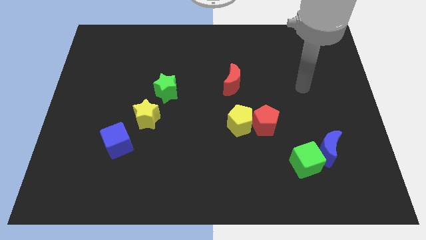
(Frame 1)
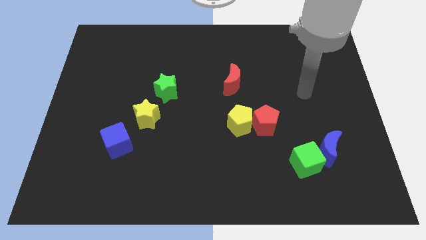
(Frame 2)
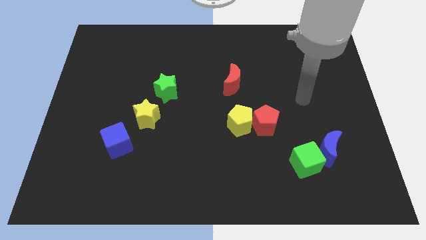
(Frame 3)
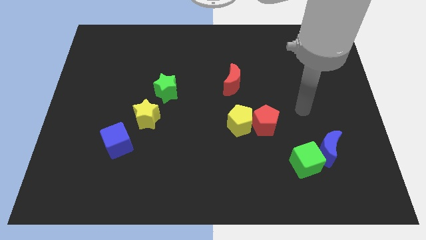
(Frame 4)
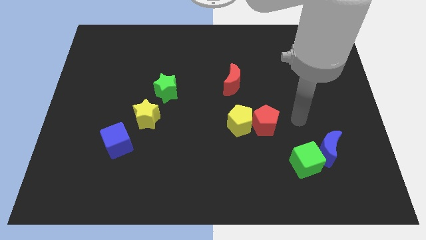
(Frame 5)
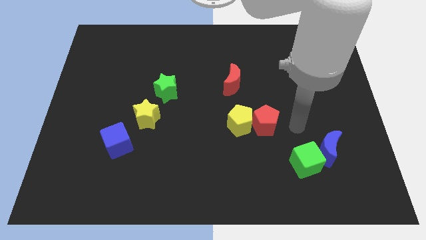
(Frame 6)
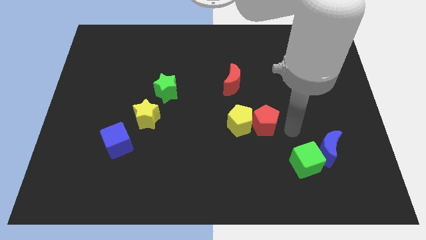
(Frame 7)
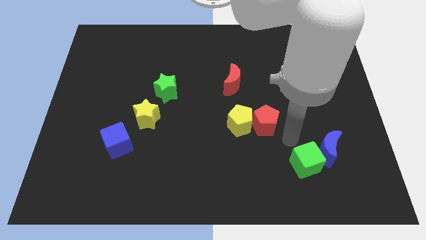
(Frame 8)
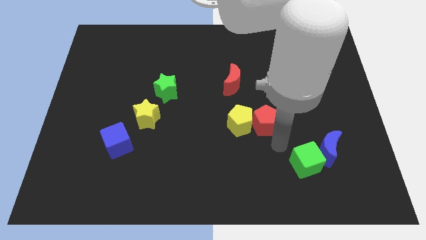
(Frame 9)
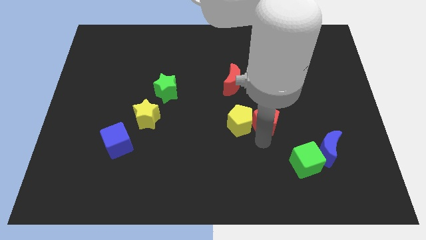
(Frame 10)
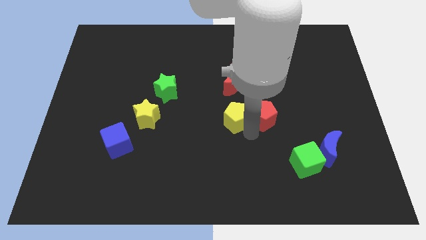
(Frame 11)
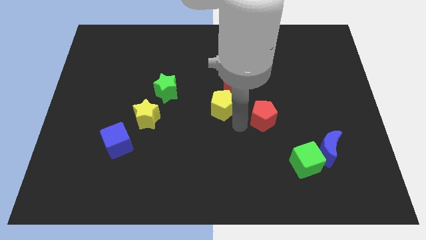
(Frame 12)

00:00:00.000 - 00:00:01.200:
move the red pentagon away from the yellow pentagon

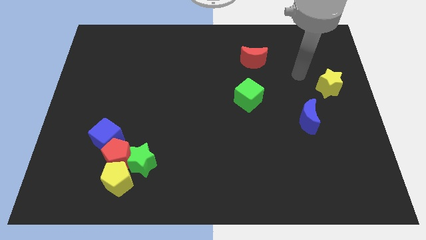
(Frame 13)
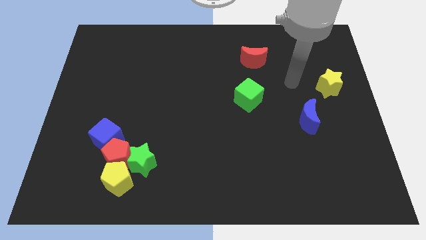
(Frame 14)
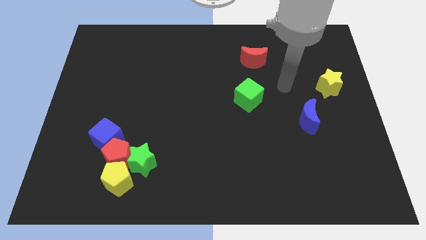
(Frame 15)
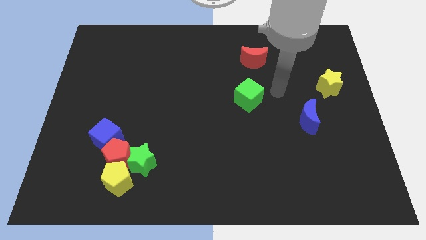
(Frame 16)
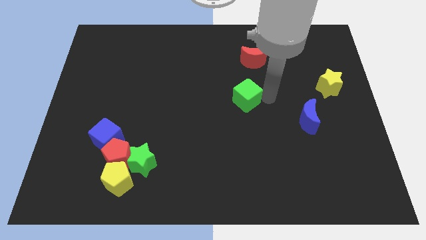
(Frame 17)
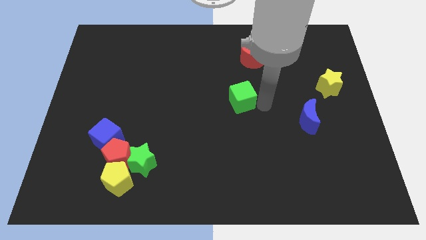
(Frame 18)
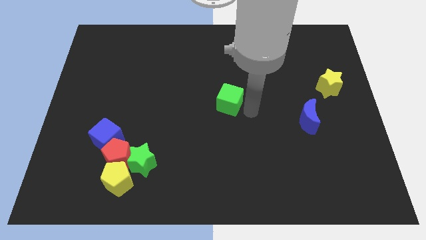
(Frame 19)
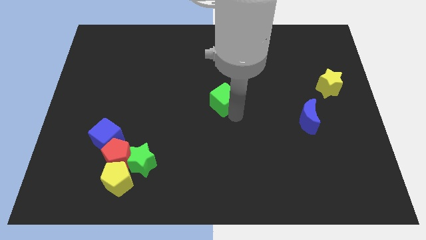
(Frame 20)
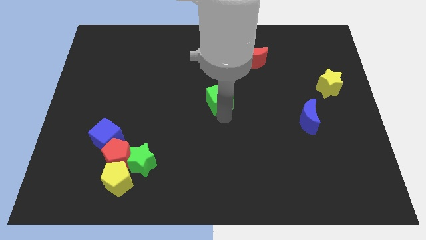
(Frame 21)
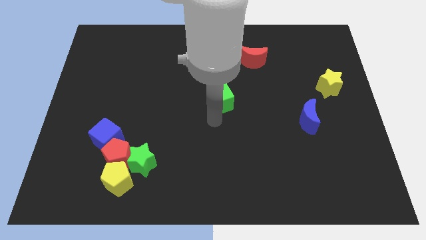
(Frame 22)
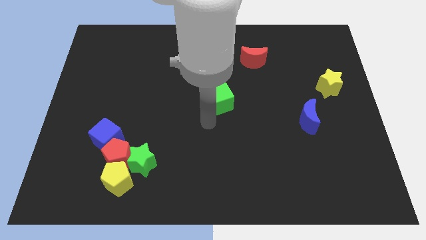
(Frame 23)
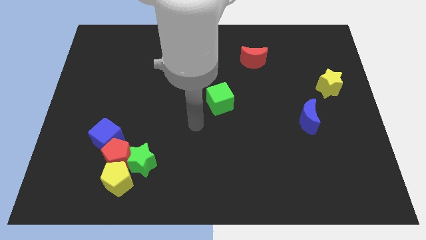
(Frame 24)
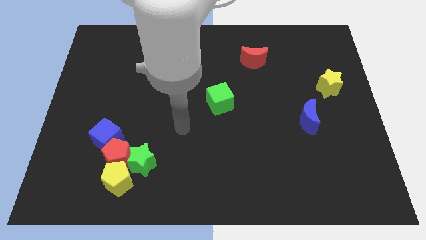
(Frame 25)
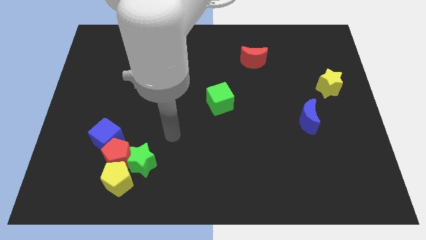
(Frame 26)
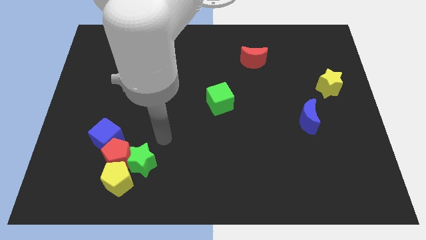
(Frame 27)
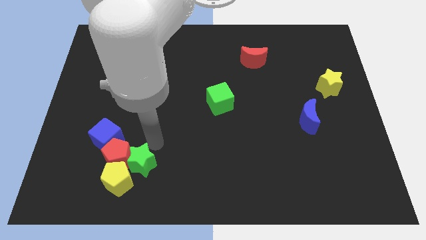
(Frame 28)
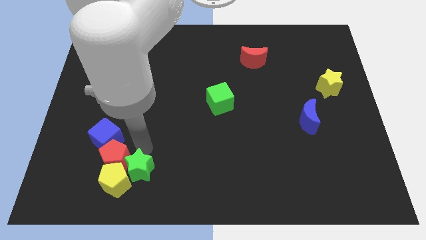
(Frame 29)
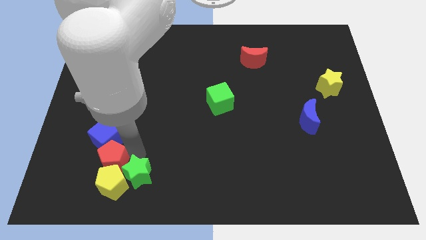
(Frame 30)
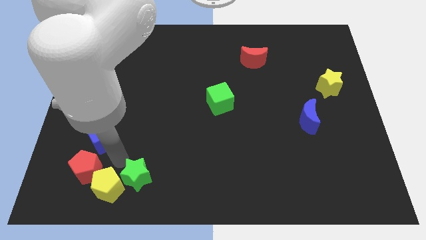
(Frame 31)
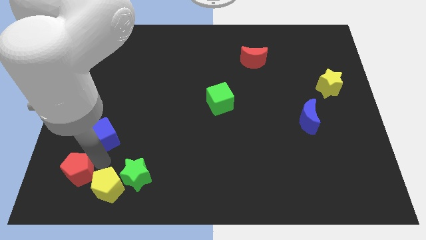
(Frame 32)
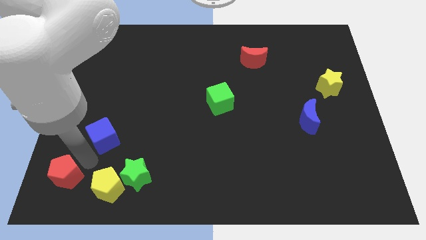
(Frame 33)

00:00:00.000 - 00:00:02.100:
move the blue cube away from the red pentagon

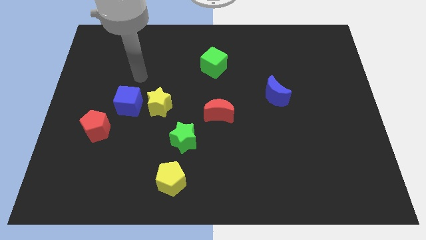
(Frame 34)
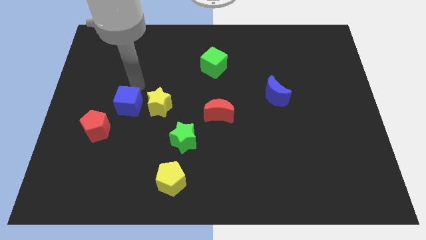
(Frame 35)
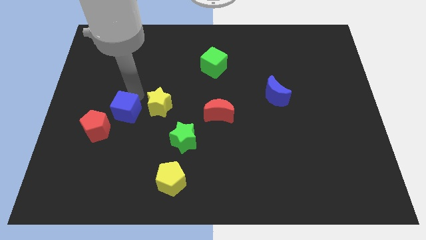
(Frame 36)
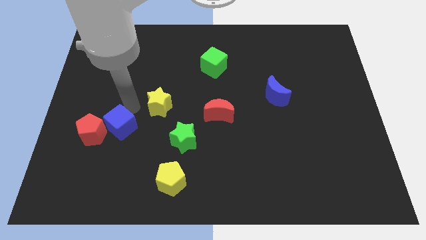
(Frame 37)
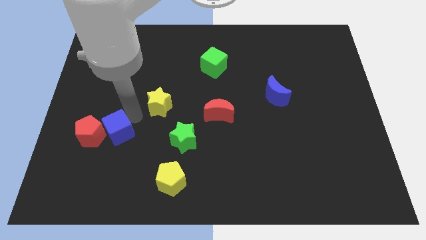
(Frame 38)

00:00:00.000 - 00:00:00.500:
separate the yellow star from the blue cube

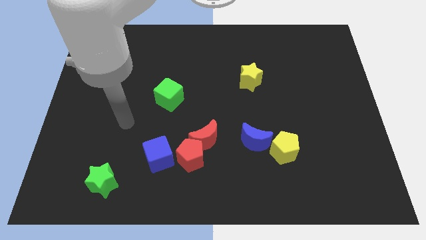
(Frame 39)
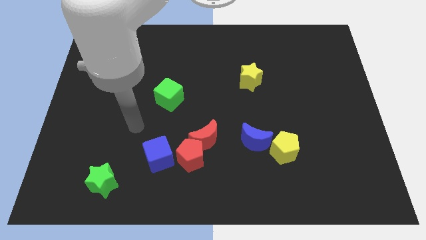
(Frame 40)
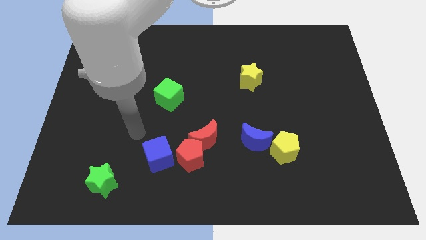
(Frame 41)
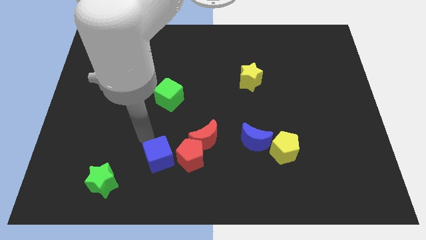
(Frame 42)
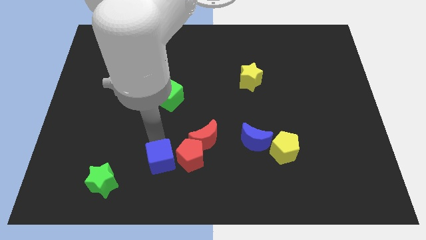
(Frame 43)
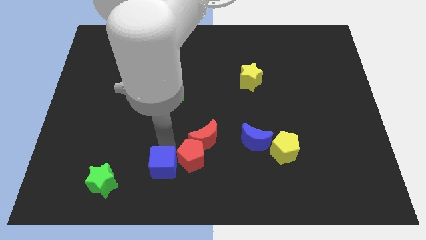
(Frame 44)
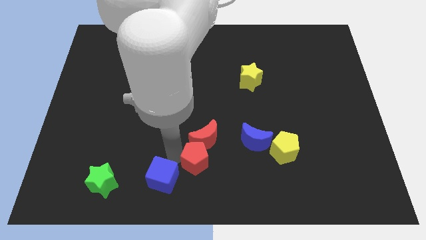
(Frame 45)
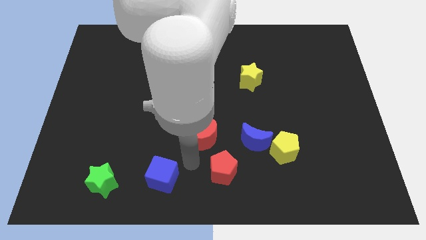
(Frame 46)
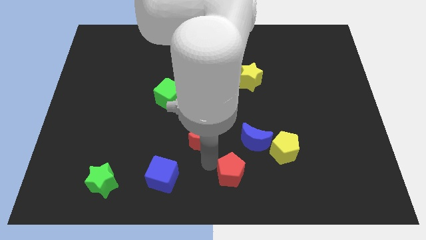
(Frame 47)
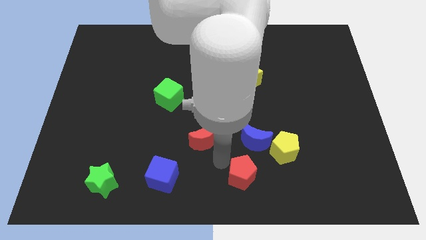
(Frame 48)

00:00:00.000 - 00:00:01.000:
pull the red moon apart from the red pentagon

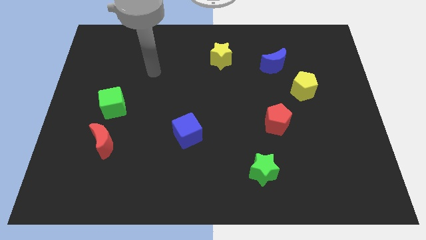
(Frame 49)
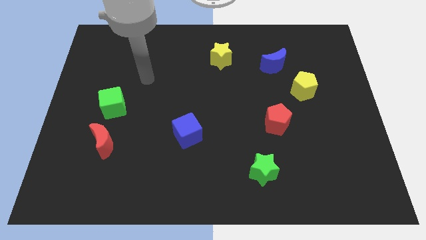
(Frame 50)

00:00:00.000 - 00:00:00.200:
move the red moon away from the green cube

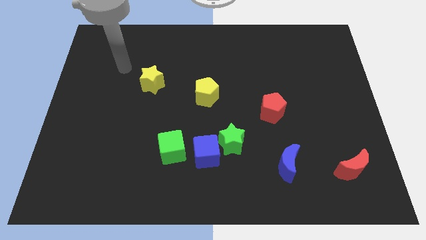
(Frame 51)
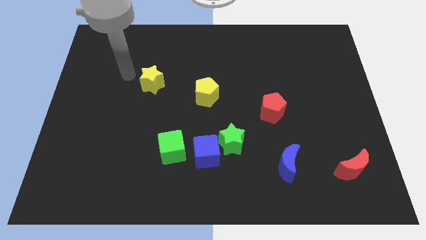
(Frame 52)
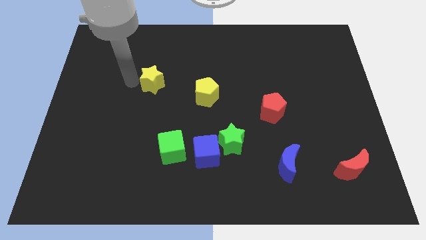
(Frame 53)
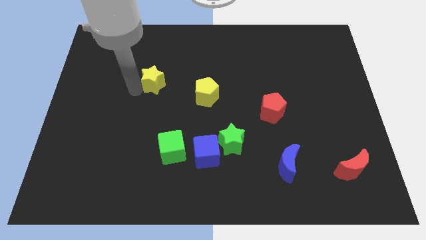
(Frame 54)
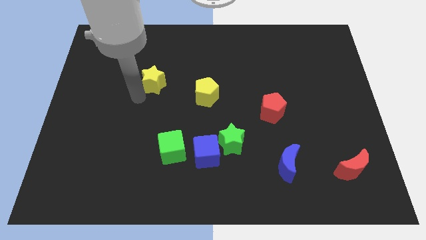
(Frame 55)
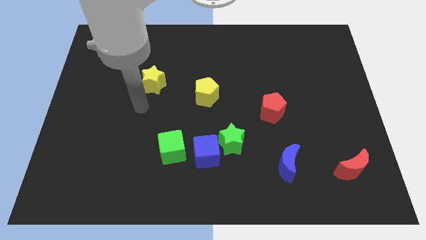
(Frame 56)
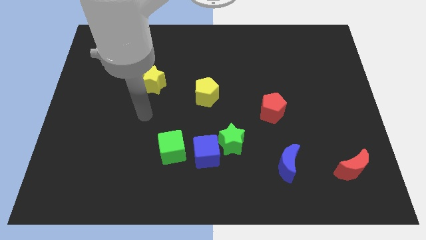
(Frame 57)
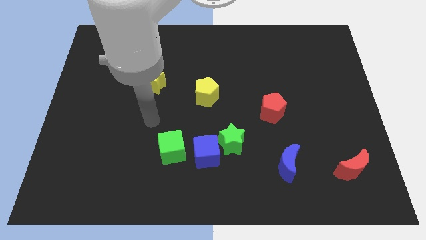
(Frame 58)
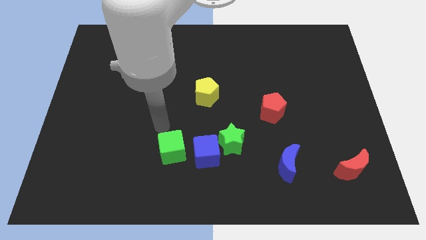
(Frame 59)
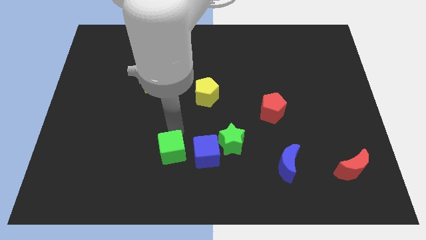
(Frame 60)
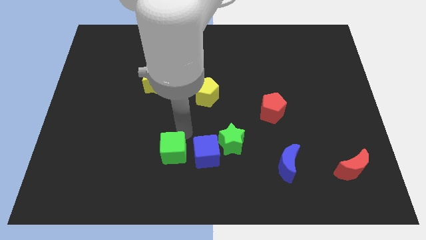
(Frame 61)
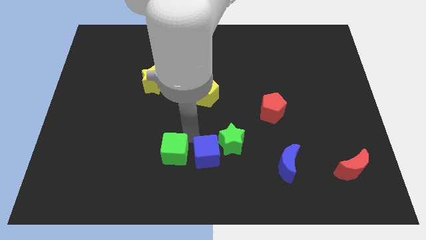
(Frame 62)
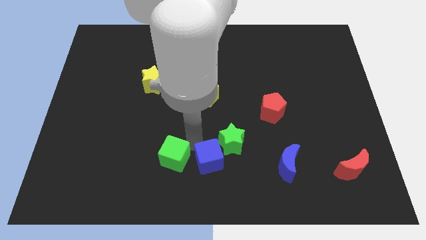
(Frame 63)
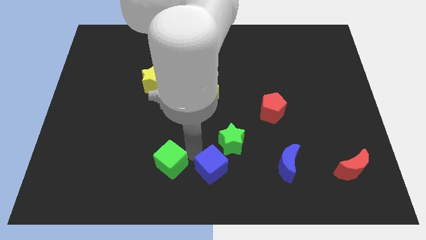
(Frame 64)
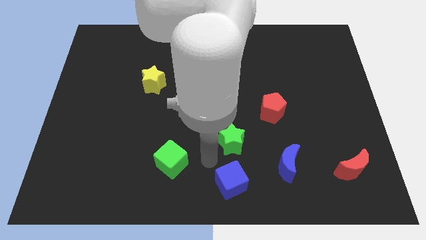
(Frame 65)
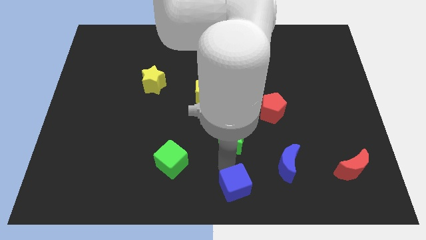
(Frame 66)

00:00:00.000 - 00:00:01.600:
pull the green star apart from the blue cube

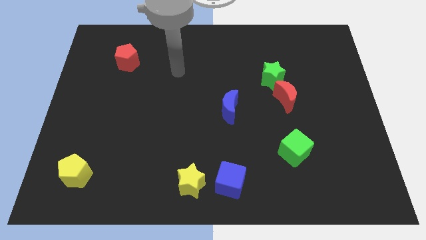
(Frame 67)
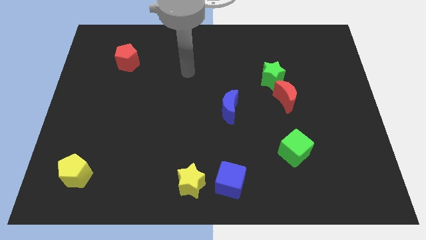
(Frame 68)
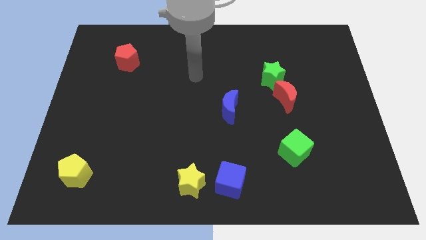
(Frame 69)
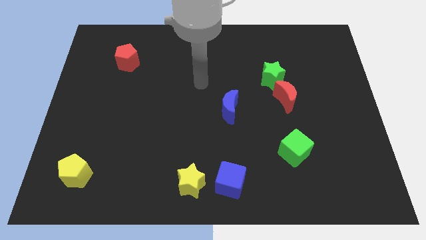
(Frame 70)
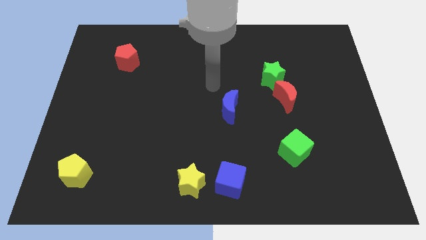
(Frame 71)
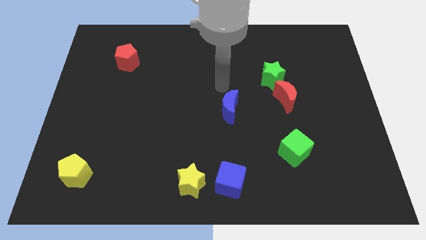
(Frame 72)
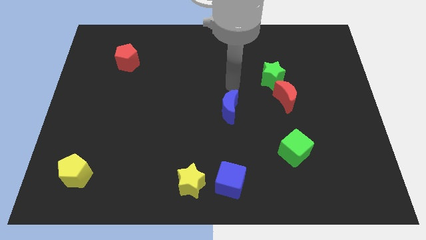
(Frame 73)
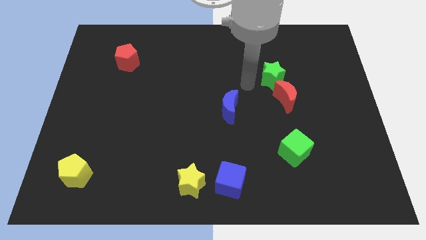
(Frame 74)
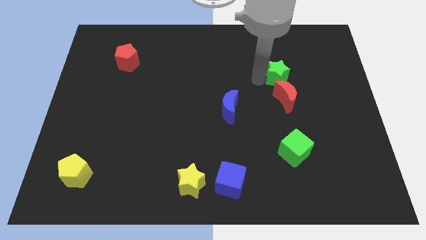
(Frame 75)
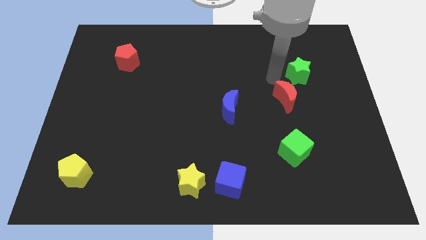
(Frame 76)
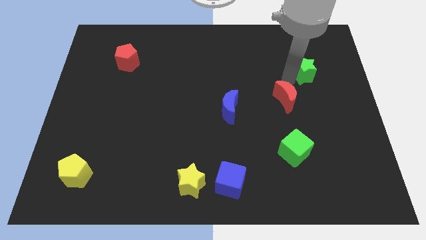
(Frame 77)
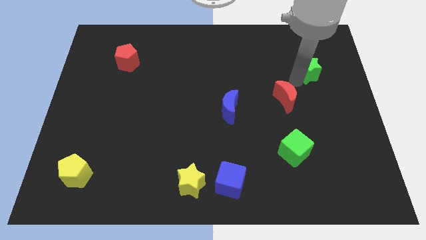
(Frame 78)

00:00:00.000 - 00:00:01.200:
pull the red moon apart from the green star

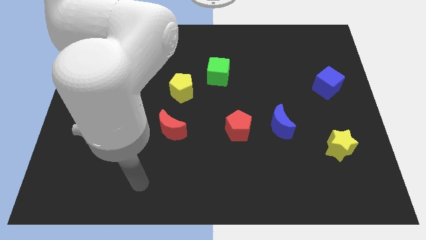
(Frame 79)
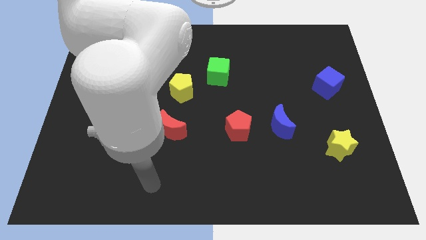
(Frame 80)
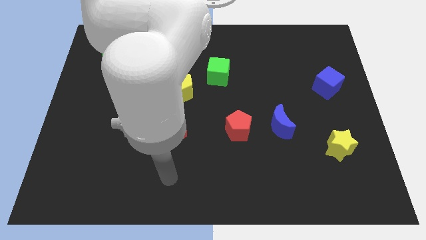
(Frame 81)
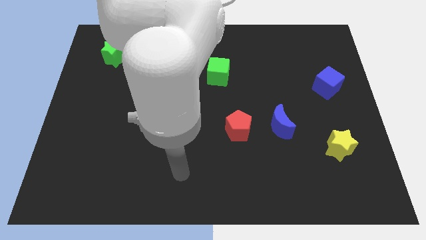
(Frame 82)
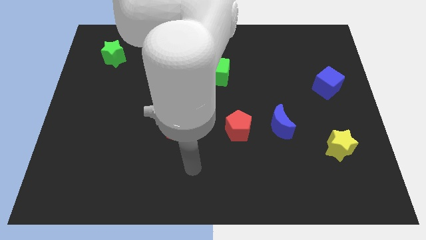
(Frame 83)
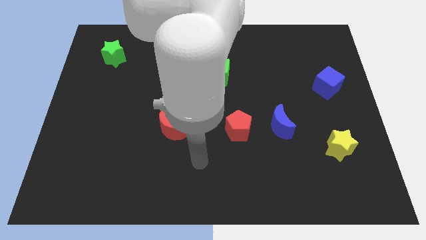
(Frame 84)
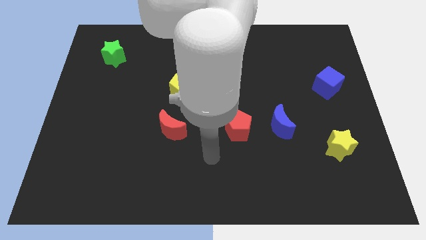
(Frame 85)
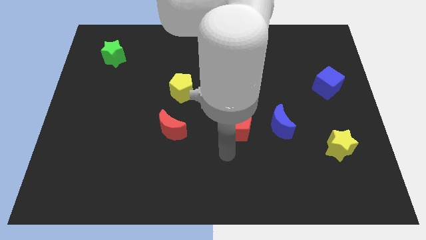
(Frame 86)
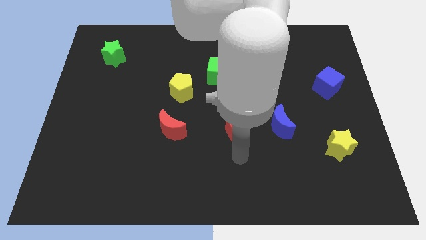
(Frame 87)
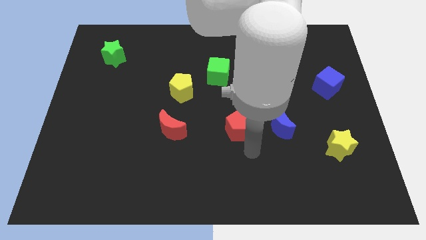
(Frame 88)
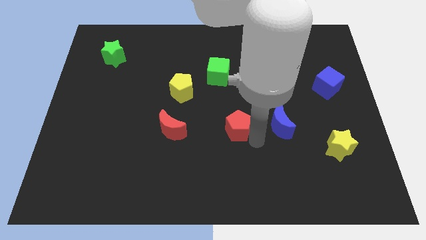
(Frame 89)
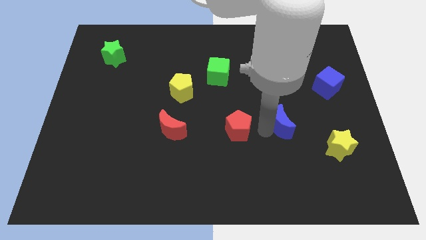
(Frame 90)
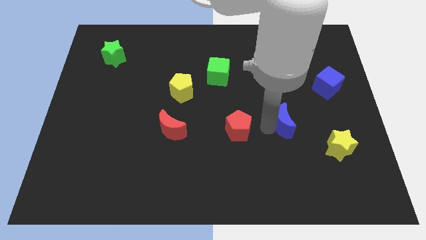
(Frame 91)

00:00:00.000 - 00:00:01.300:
pull the red pentagon apart from the blue moon

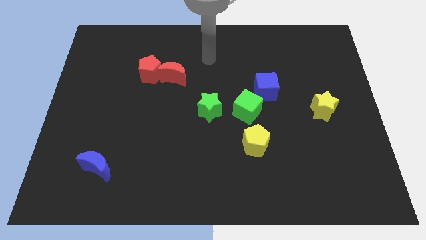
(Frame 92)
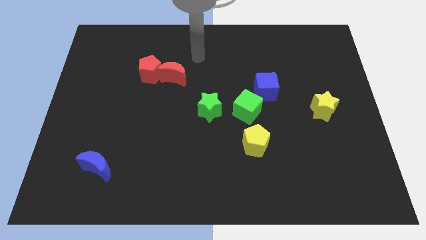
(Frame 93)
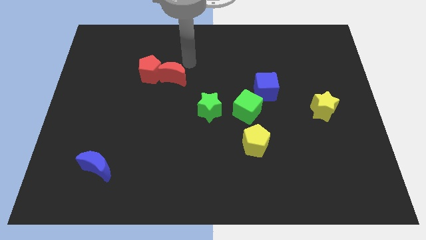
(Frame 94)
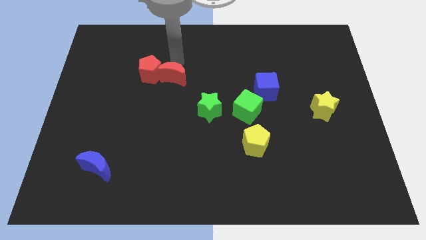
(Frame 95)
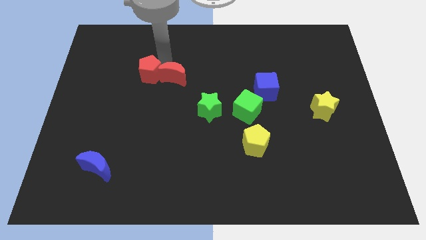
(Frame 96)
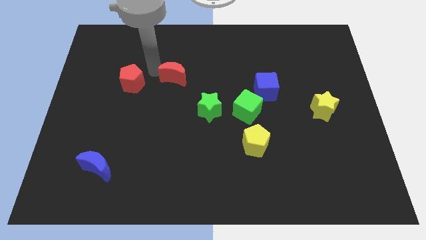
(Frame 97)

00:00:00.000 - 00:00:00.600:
separate the red moon from the red pentagon
